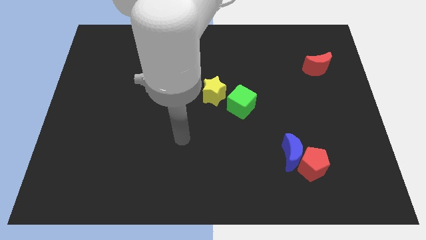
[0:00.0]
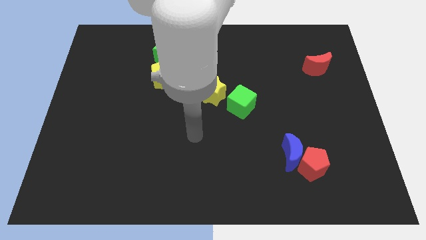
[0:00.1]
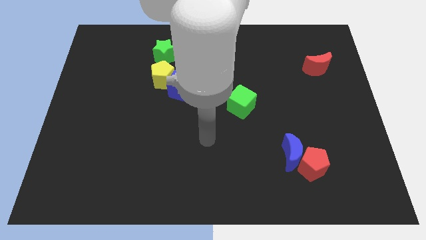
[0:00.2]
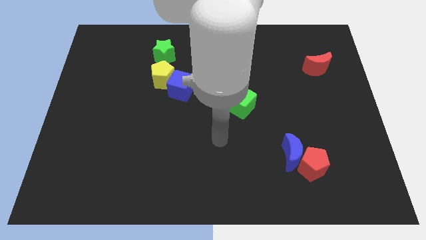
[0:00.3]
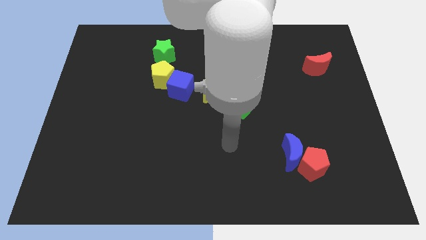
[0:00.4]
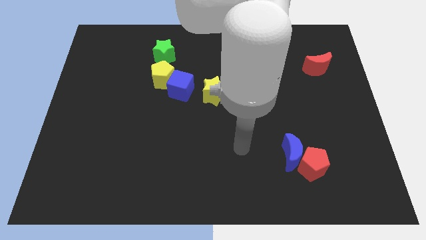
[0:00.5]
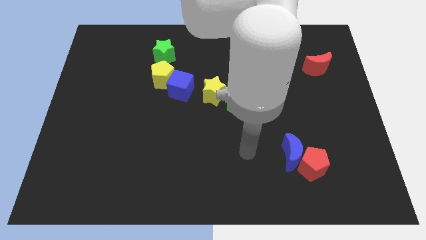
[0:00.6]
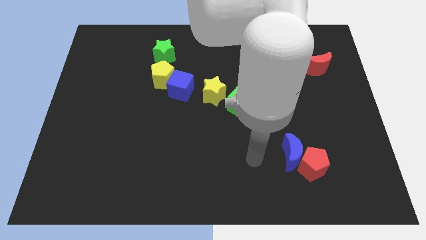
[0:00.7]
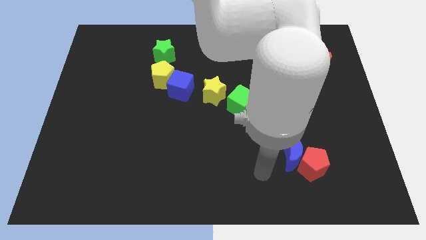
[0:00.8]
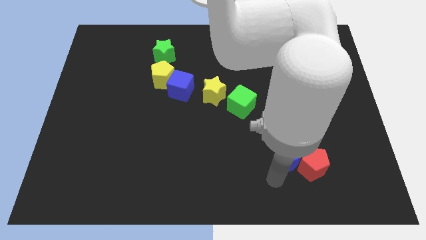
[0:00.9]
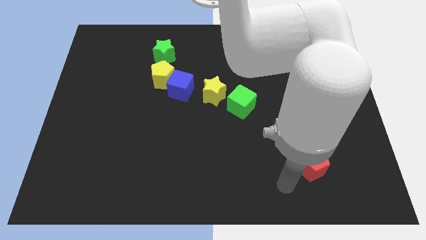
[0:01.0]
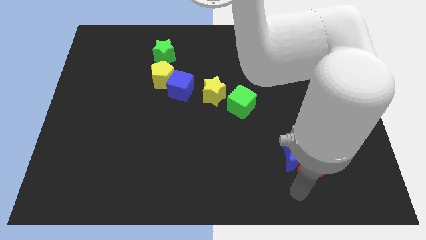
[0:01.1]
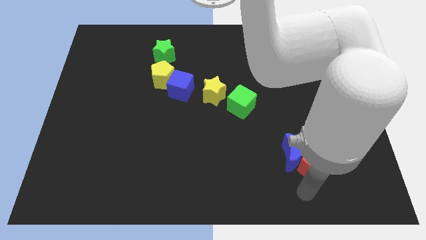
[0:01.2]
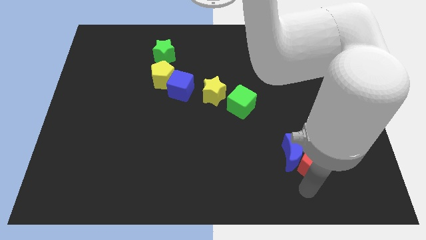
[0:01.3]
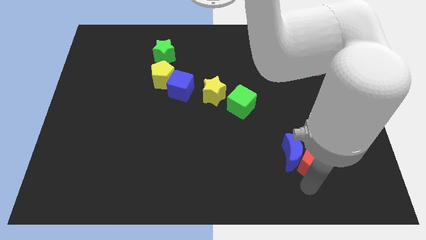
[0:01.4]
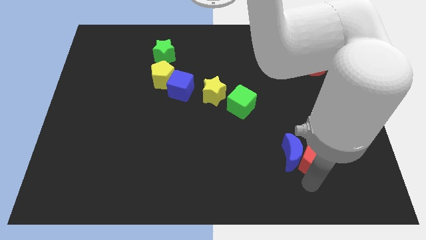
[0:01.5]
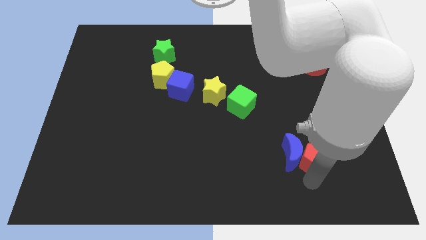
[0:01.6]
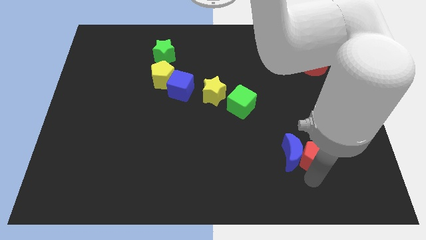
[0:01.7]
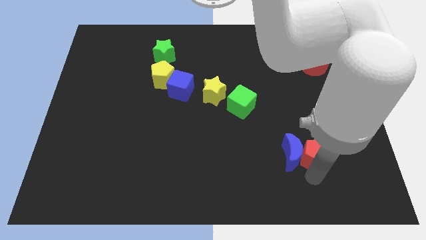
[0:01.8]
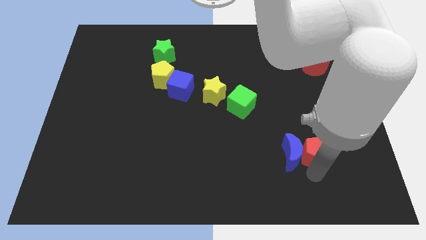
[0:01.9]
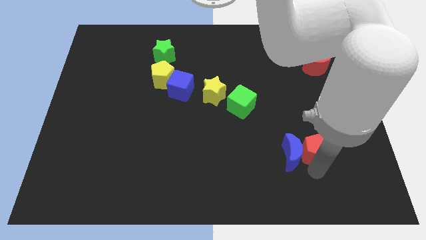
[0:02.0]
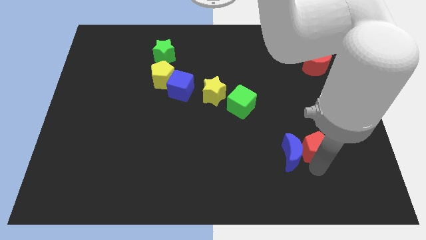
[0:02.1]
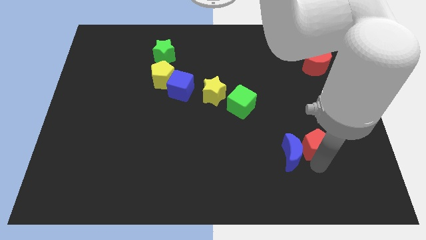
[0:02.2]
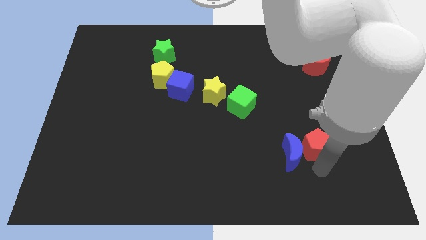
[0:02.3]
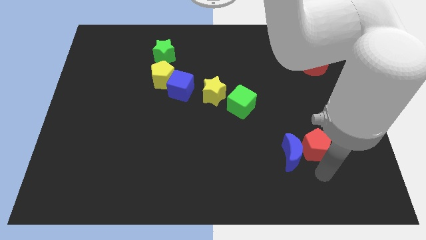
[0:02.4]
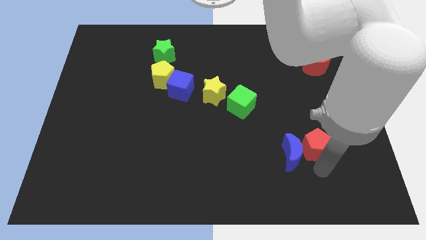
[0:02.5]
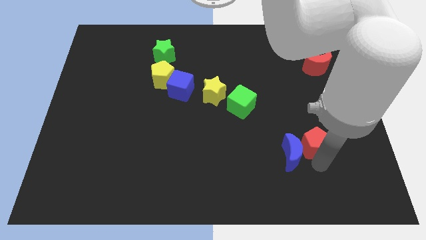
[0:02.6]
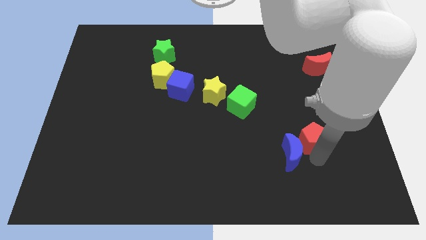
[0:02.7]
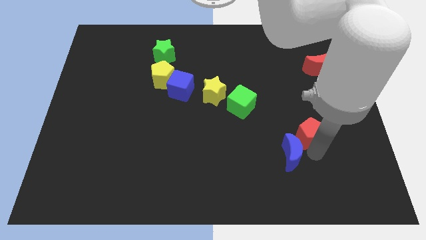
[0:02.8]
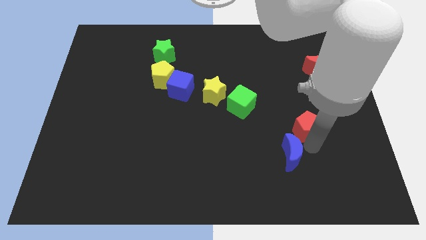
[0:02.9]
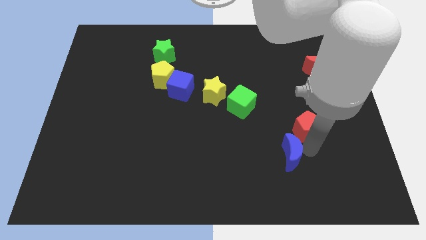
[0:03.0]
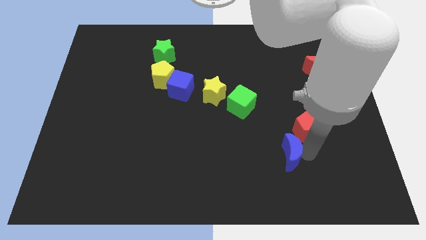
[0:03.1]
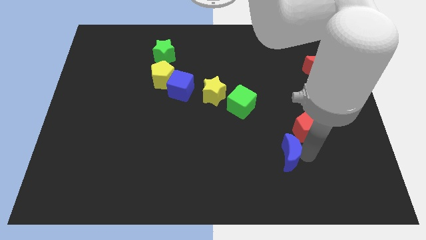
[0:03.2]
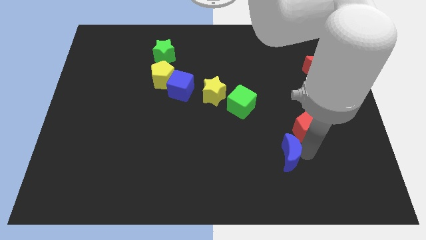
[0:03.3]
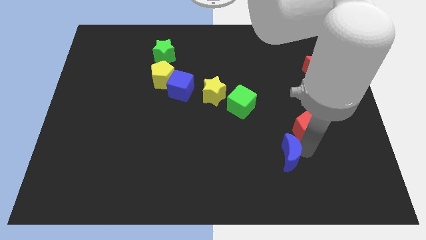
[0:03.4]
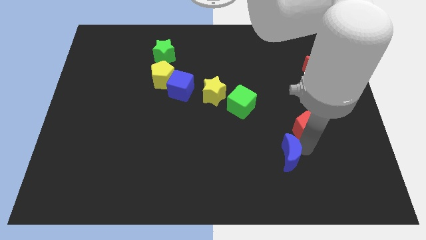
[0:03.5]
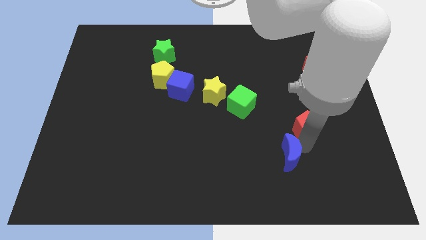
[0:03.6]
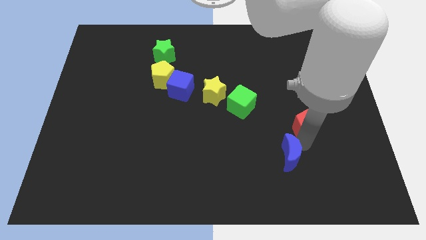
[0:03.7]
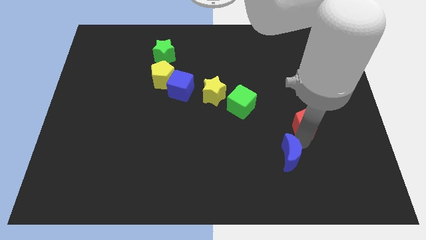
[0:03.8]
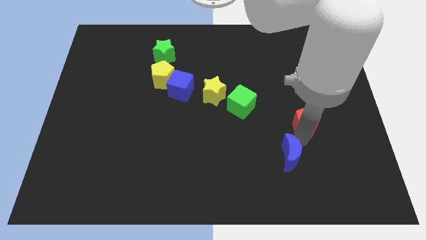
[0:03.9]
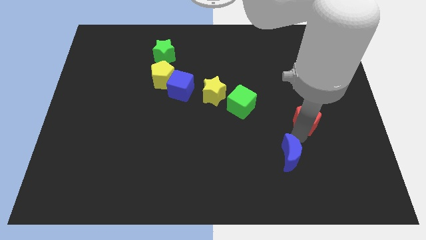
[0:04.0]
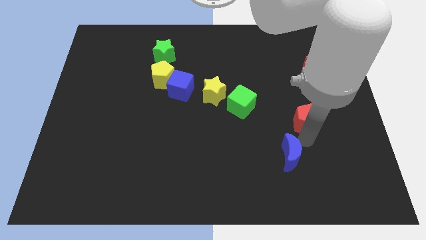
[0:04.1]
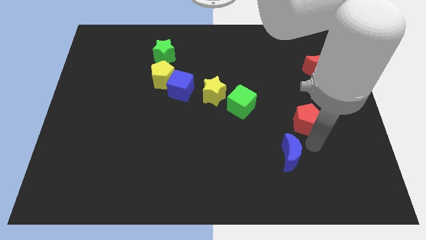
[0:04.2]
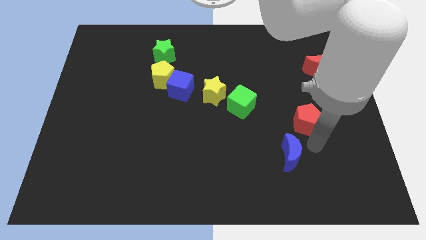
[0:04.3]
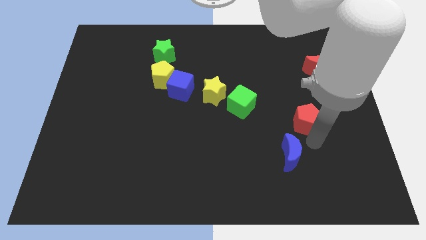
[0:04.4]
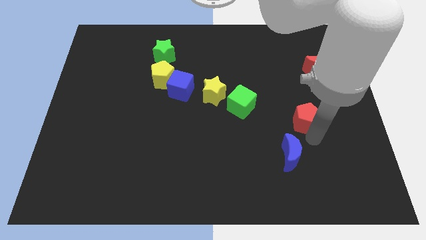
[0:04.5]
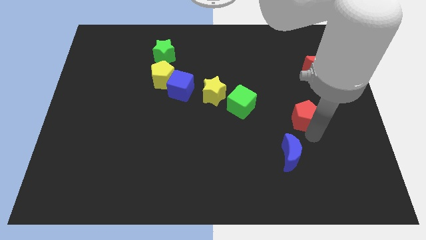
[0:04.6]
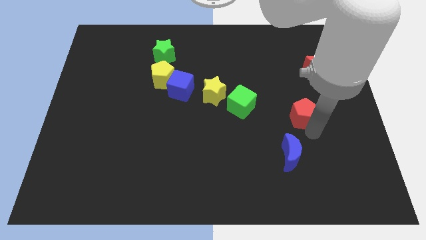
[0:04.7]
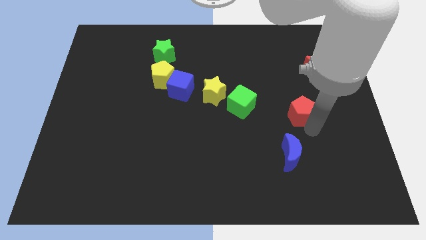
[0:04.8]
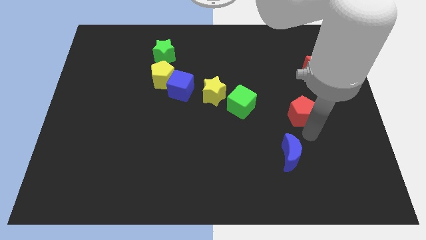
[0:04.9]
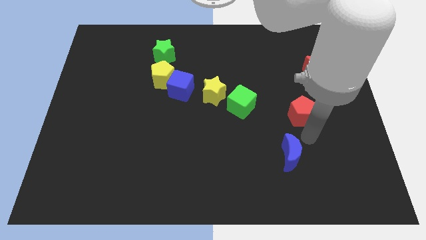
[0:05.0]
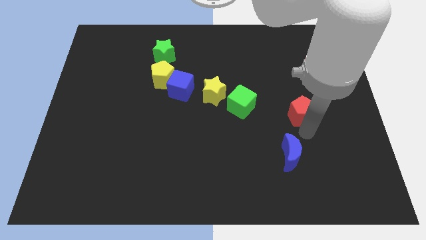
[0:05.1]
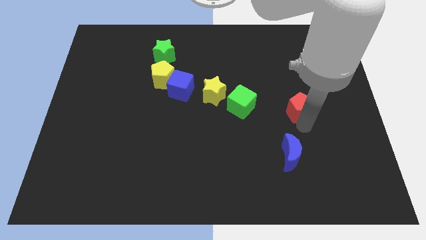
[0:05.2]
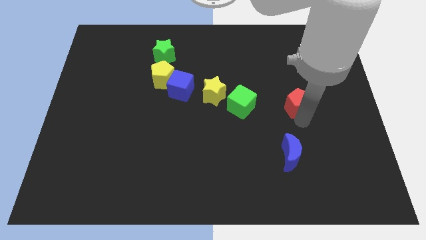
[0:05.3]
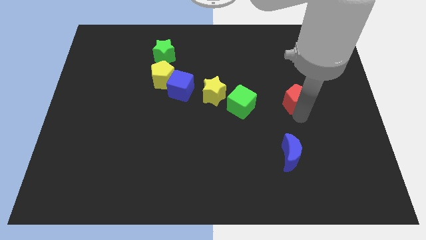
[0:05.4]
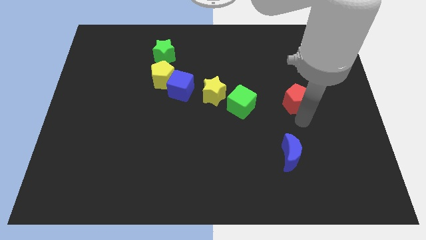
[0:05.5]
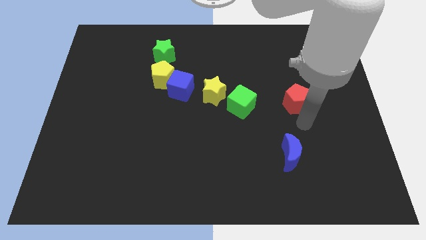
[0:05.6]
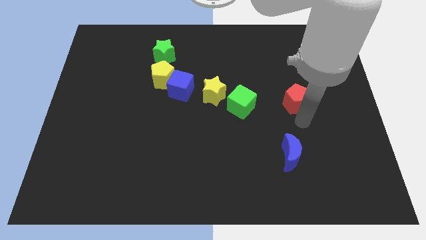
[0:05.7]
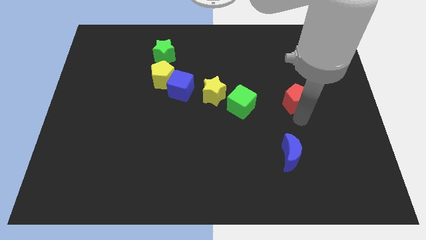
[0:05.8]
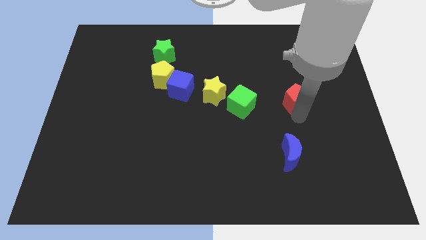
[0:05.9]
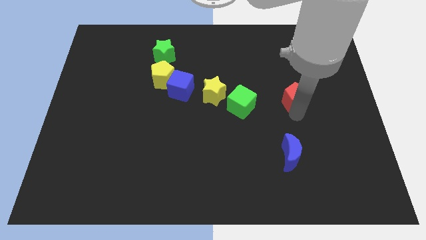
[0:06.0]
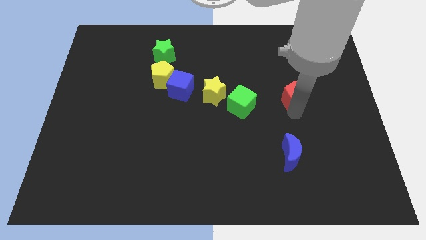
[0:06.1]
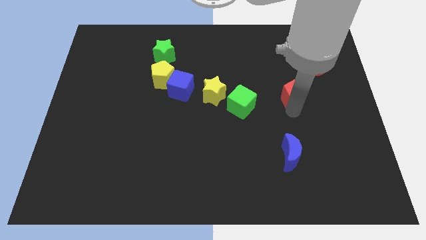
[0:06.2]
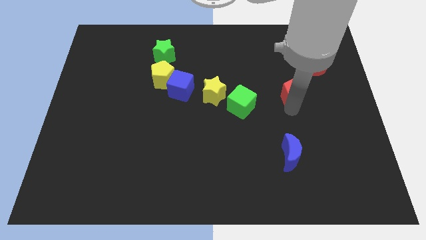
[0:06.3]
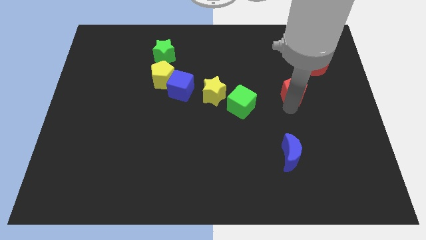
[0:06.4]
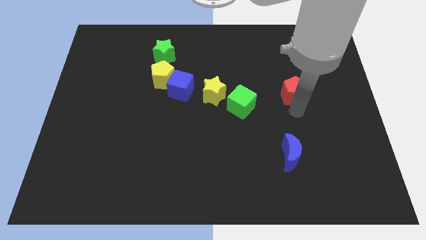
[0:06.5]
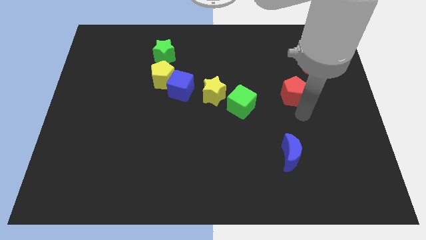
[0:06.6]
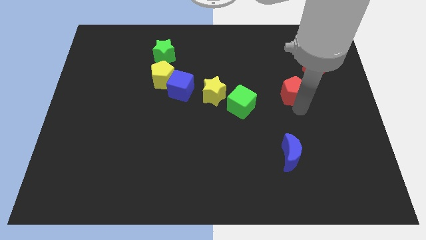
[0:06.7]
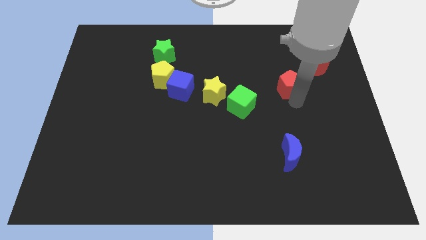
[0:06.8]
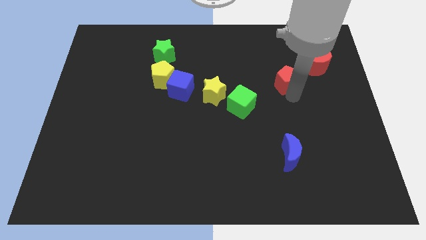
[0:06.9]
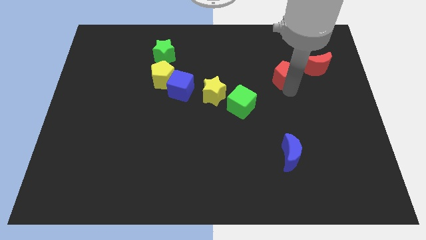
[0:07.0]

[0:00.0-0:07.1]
slide the red pentagon just left of the red moon
